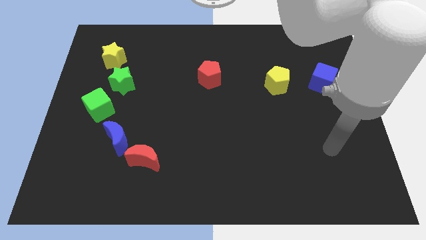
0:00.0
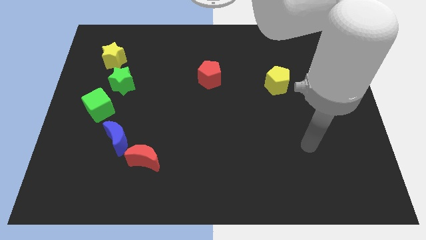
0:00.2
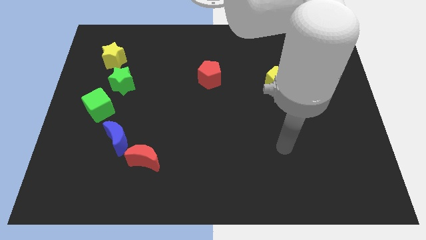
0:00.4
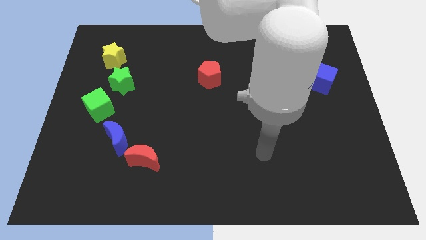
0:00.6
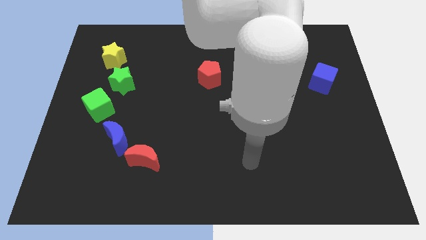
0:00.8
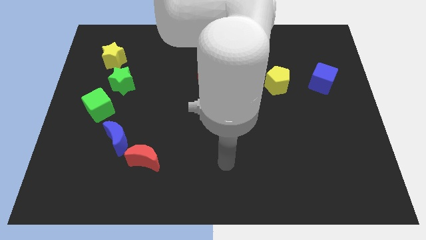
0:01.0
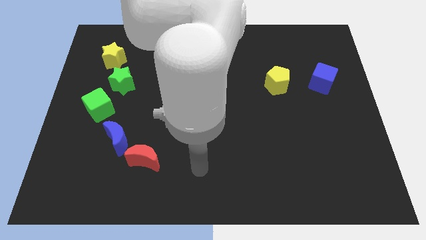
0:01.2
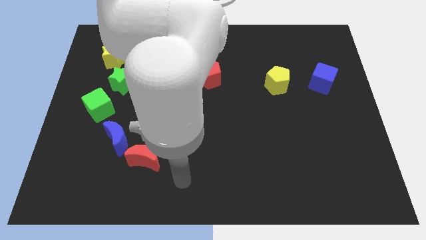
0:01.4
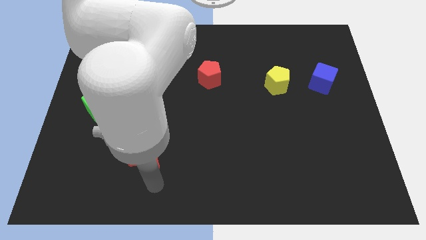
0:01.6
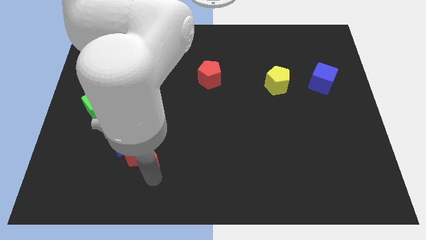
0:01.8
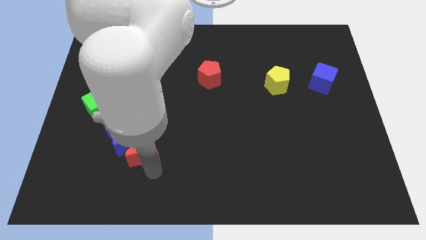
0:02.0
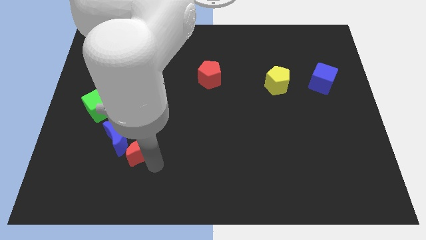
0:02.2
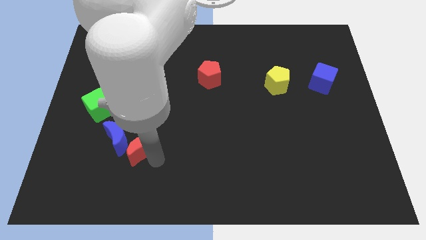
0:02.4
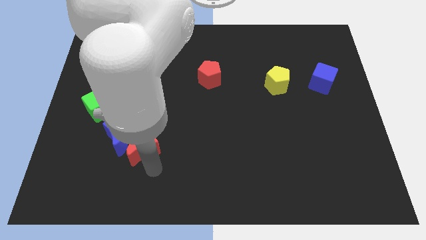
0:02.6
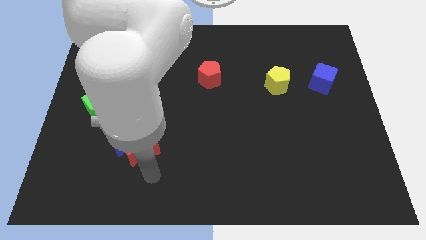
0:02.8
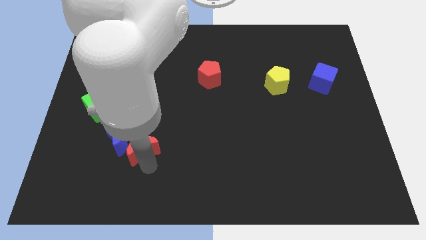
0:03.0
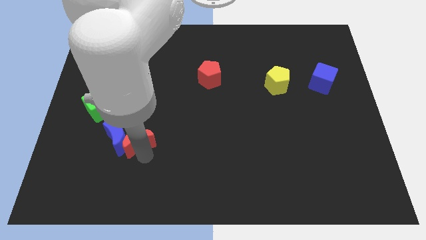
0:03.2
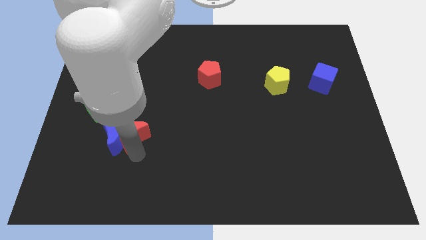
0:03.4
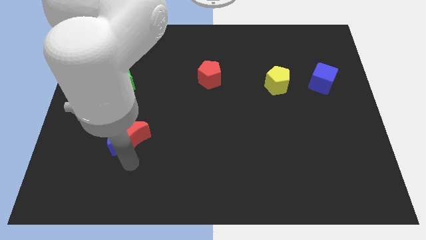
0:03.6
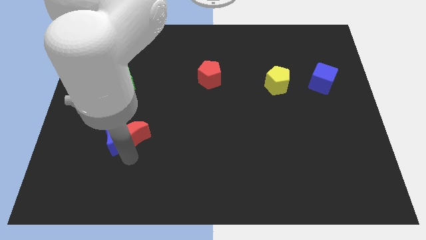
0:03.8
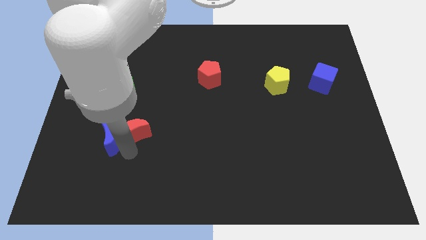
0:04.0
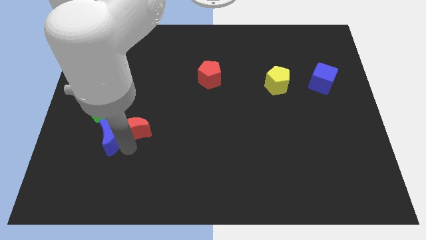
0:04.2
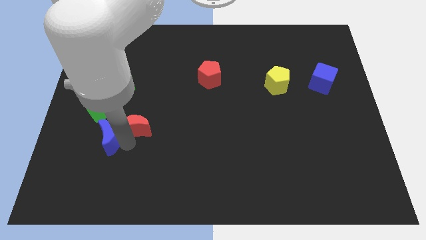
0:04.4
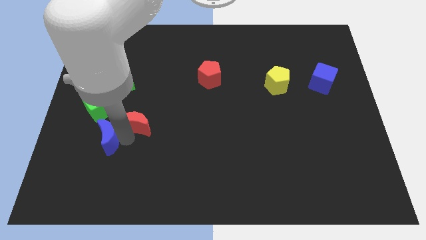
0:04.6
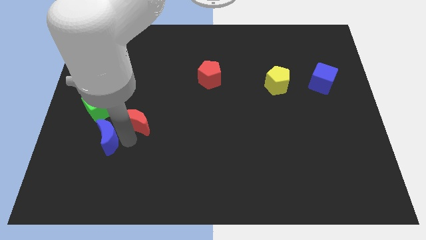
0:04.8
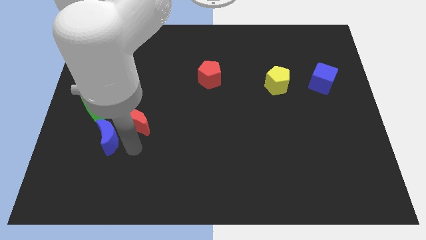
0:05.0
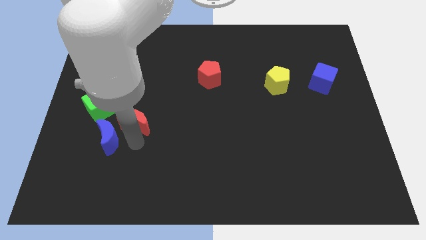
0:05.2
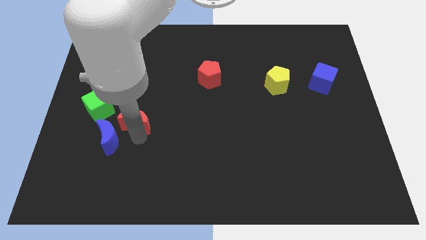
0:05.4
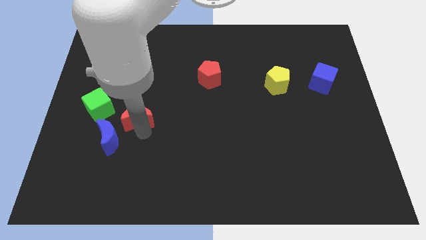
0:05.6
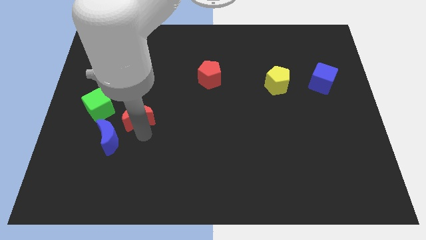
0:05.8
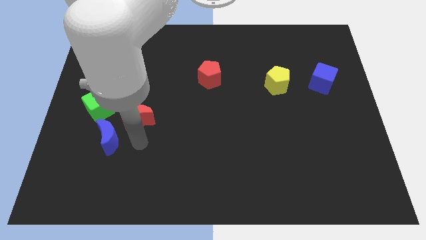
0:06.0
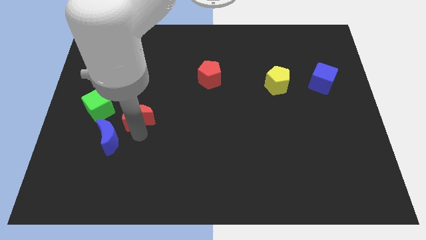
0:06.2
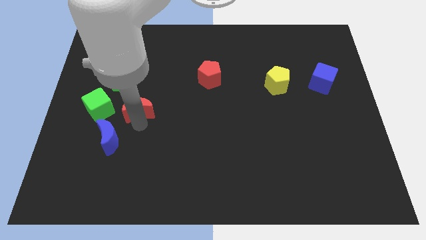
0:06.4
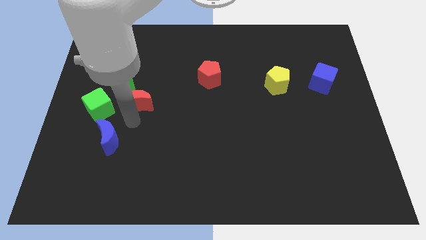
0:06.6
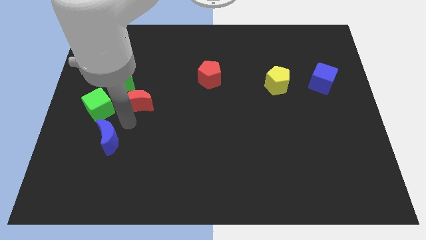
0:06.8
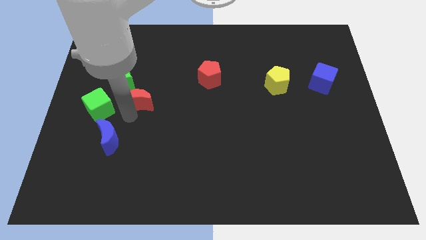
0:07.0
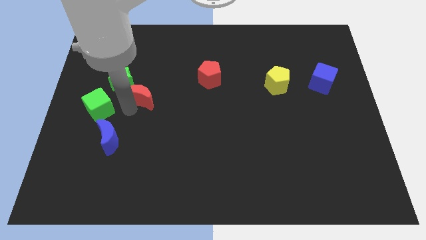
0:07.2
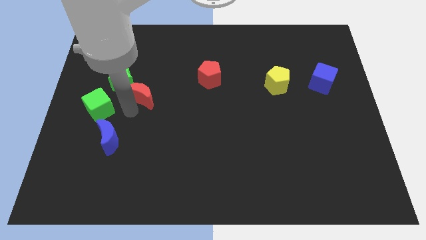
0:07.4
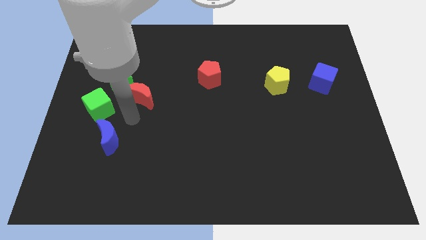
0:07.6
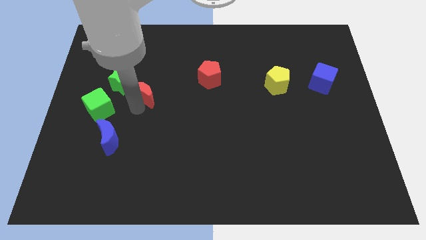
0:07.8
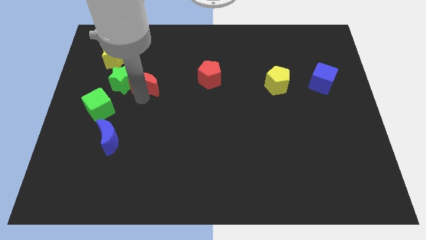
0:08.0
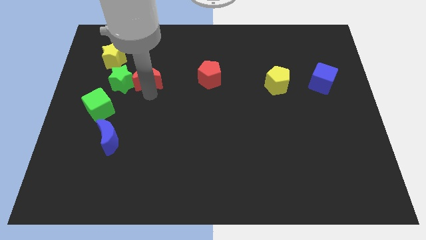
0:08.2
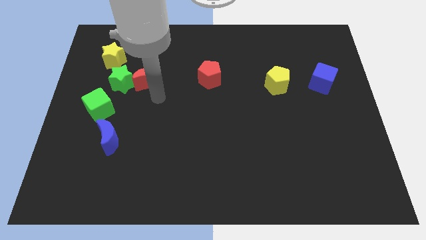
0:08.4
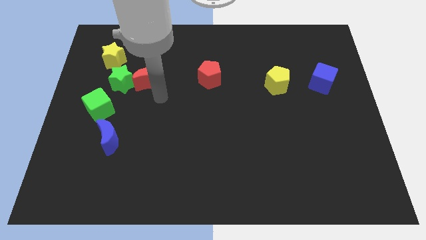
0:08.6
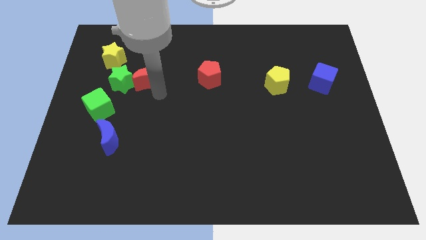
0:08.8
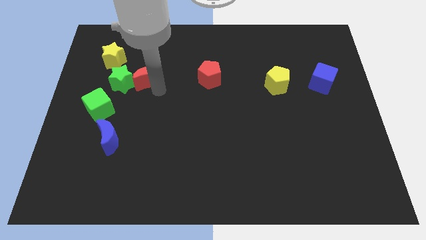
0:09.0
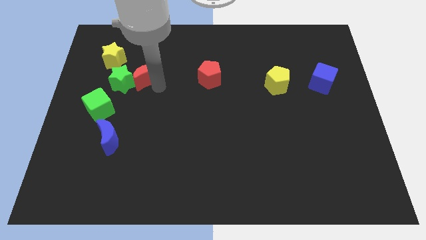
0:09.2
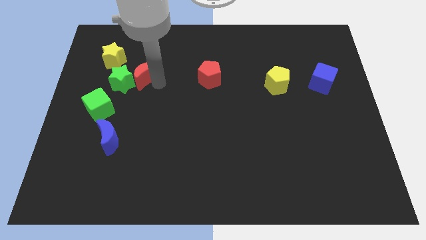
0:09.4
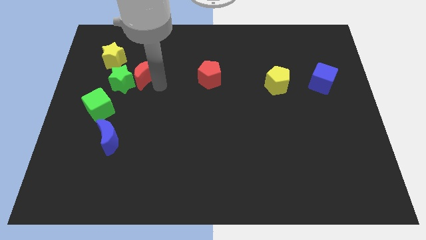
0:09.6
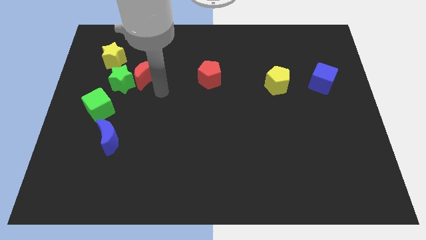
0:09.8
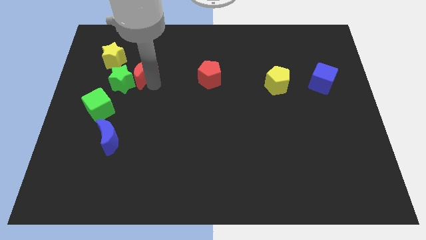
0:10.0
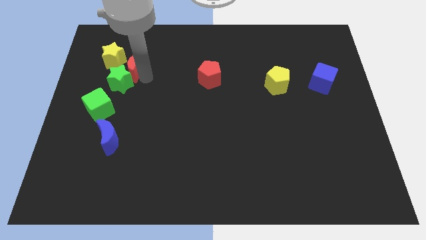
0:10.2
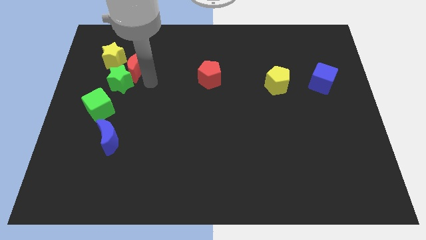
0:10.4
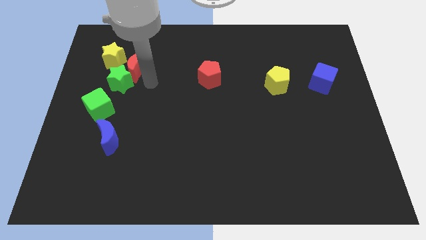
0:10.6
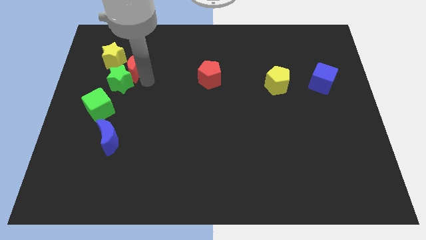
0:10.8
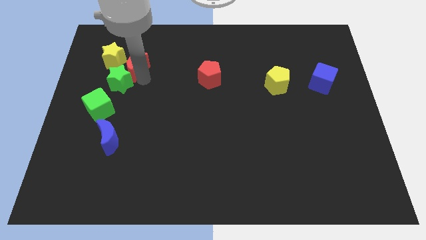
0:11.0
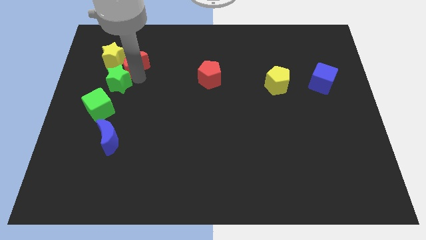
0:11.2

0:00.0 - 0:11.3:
push the red moon to the yellow star

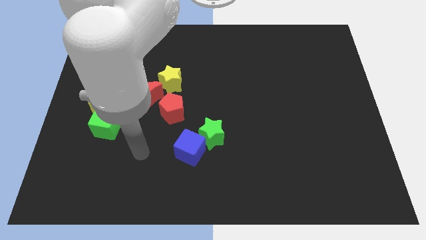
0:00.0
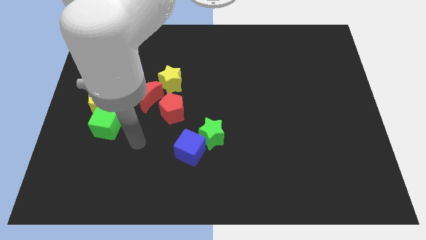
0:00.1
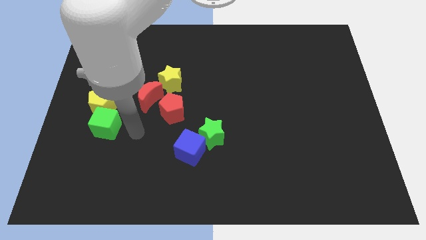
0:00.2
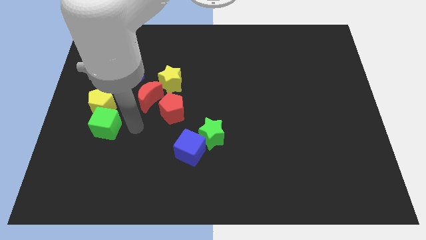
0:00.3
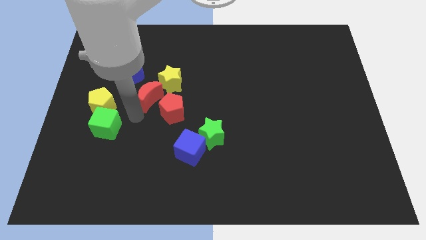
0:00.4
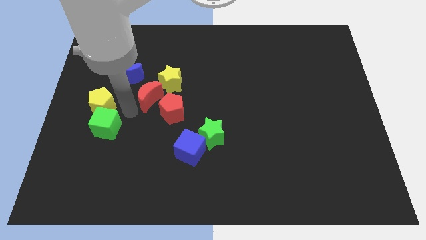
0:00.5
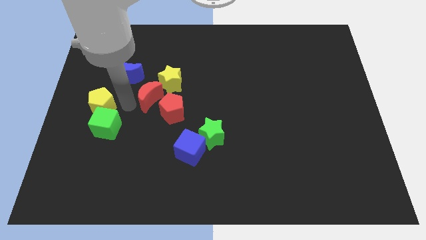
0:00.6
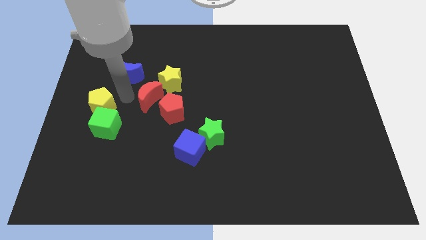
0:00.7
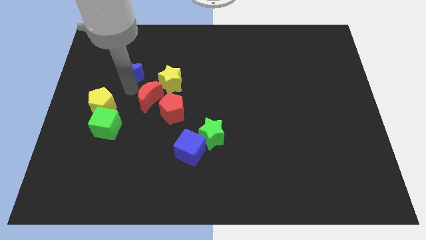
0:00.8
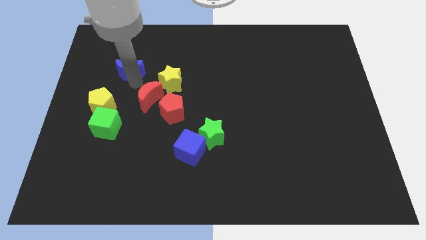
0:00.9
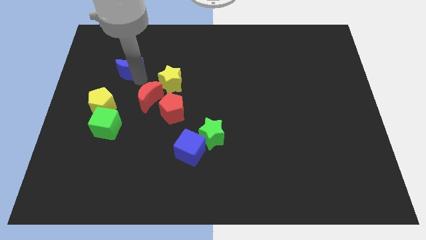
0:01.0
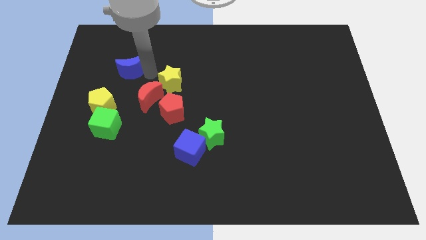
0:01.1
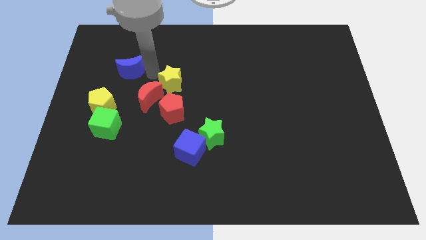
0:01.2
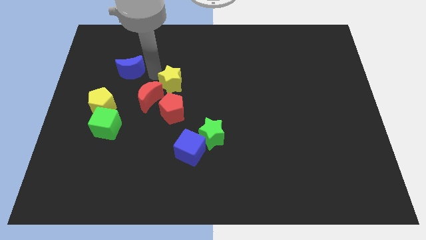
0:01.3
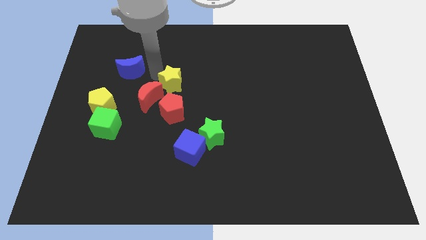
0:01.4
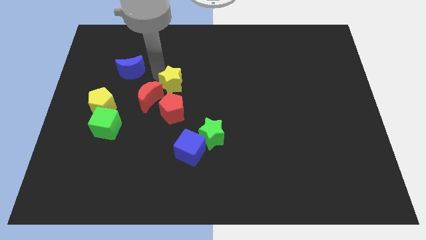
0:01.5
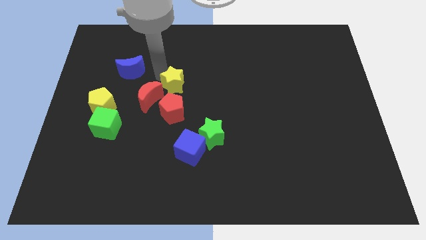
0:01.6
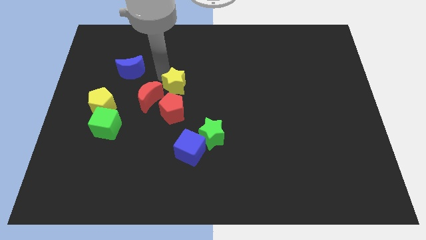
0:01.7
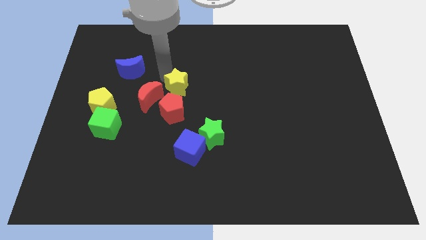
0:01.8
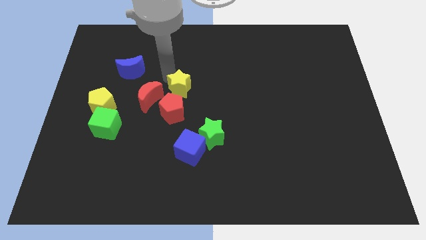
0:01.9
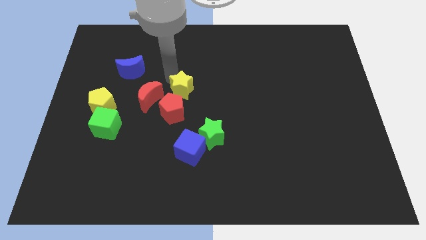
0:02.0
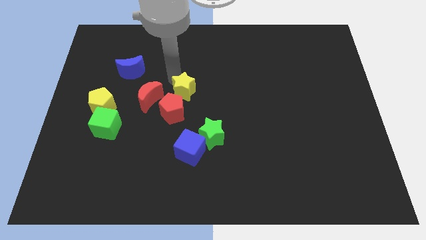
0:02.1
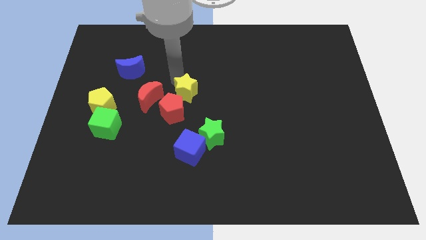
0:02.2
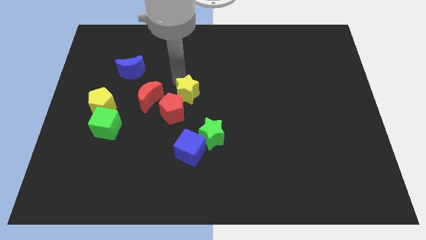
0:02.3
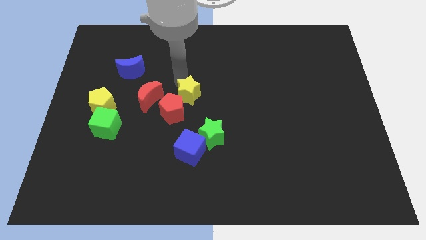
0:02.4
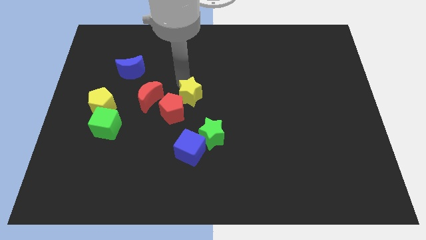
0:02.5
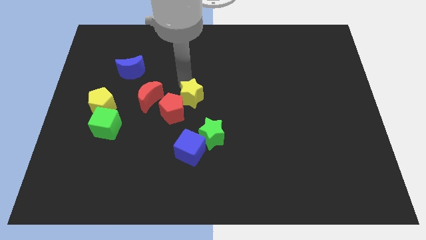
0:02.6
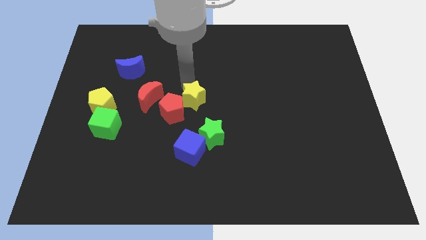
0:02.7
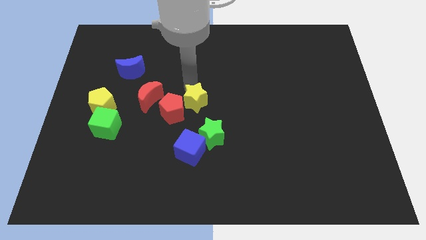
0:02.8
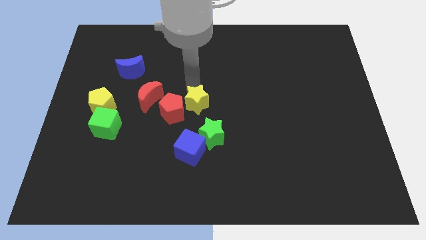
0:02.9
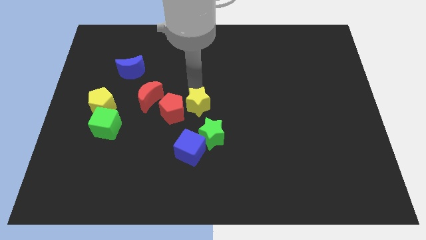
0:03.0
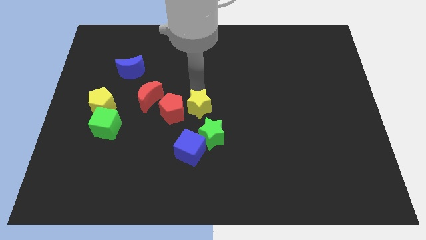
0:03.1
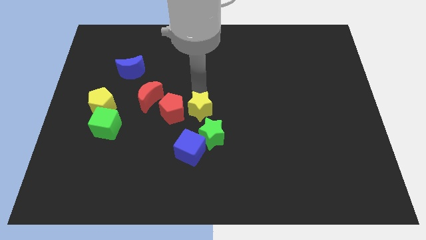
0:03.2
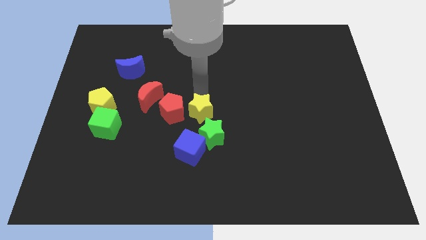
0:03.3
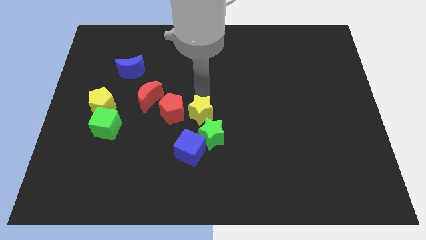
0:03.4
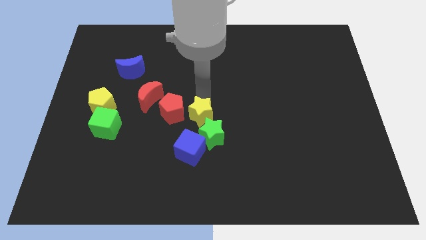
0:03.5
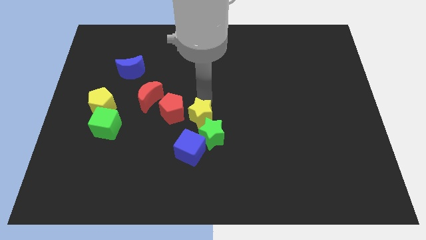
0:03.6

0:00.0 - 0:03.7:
slide the yellow star to the green star
